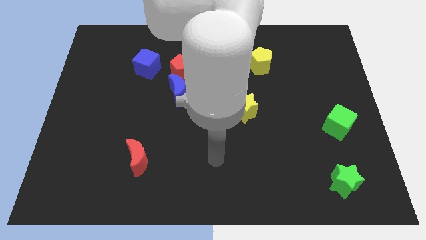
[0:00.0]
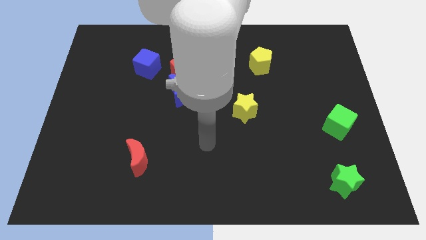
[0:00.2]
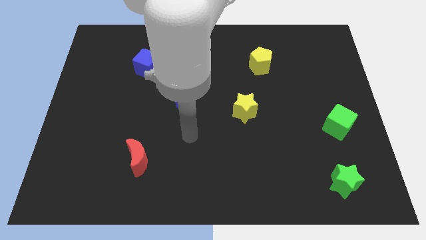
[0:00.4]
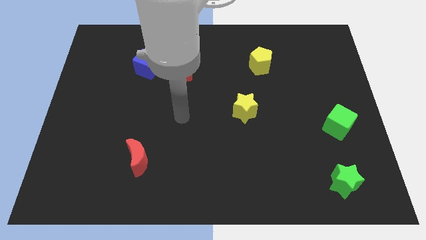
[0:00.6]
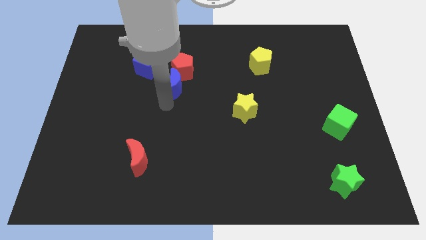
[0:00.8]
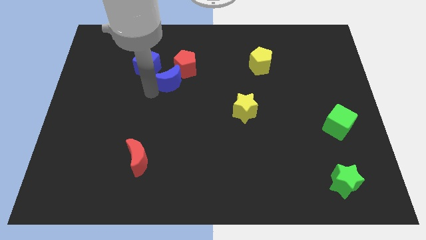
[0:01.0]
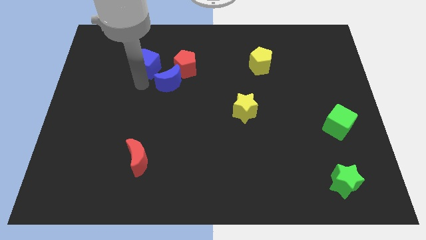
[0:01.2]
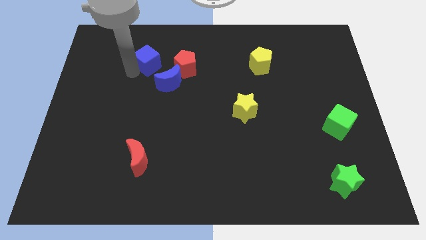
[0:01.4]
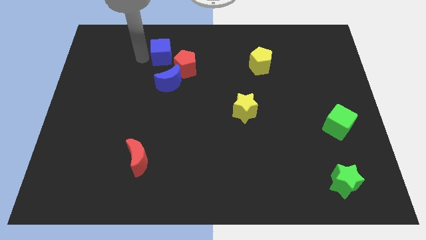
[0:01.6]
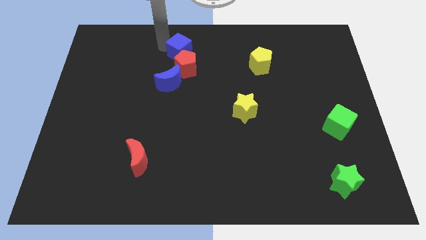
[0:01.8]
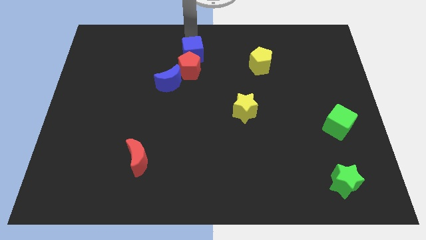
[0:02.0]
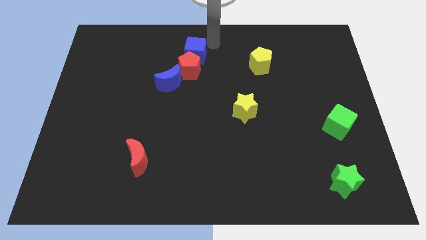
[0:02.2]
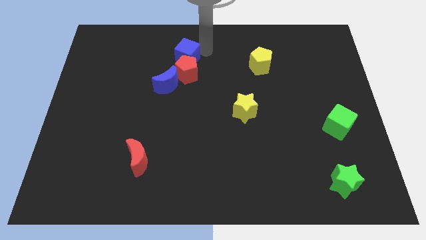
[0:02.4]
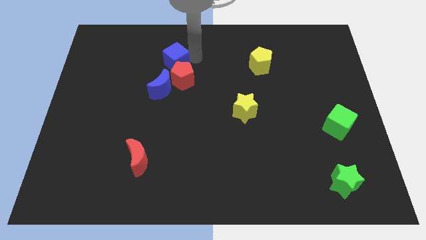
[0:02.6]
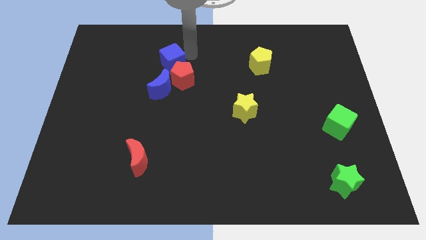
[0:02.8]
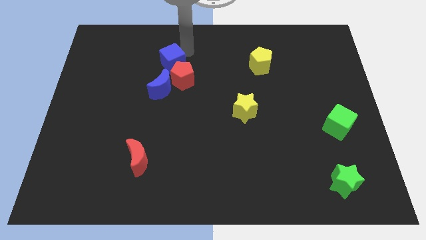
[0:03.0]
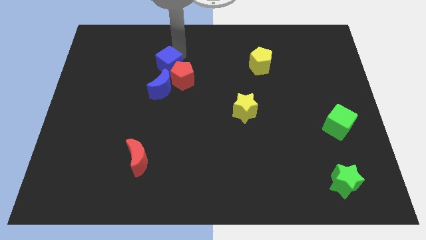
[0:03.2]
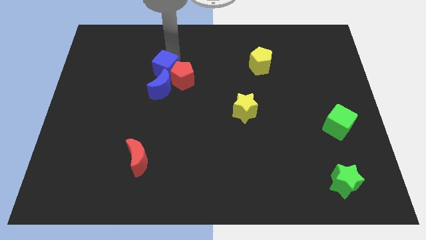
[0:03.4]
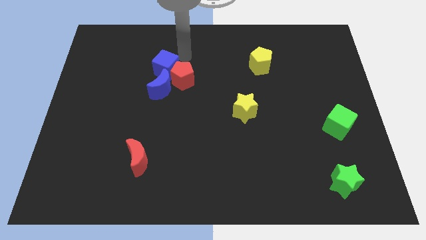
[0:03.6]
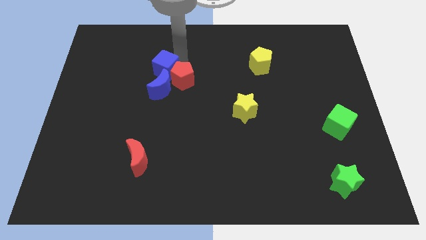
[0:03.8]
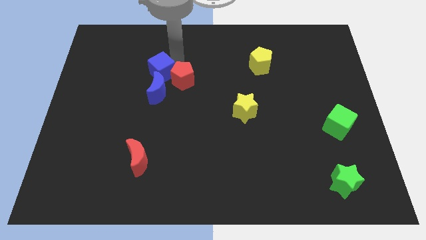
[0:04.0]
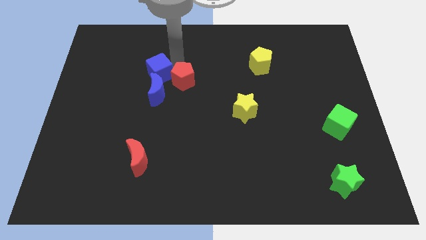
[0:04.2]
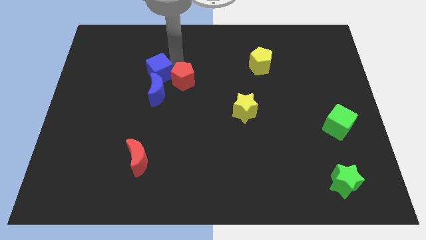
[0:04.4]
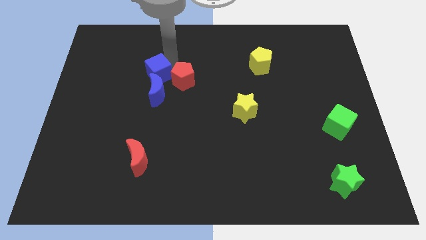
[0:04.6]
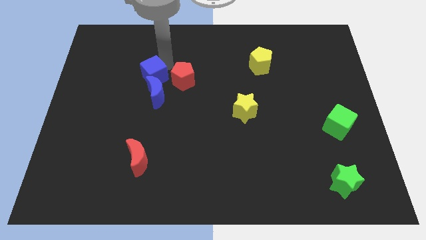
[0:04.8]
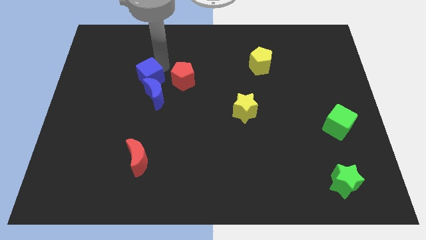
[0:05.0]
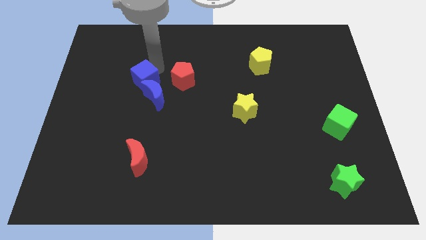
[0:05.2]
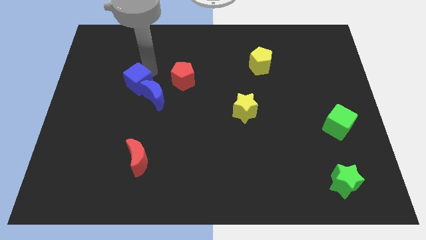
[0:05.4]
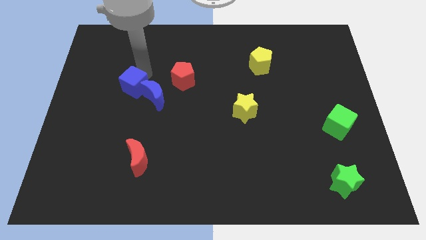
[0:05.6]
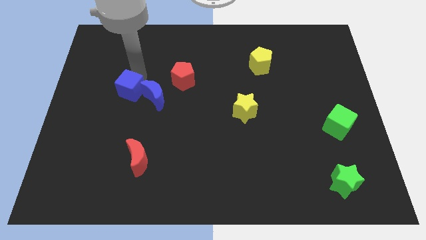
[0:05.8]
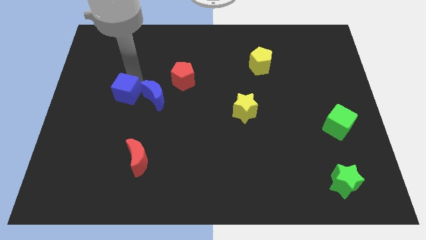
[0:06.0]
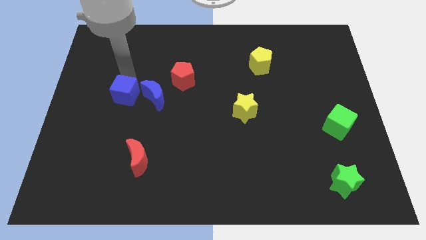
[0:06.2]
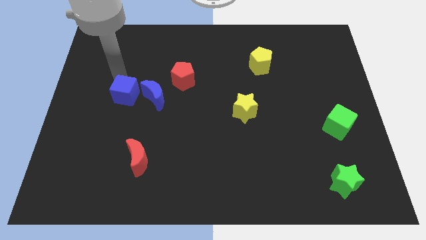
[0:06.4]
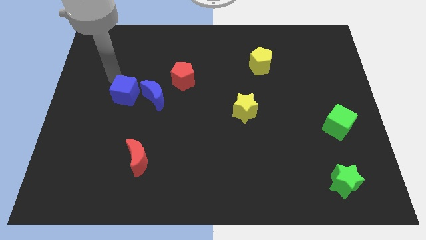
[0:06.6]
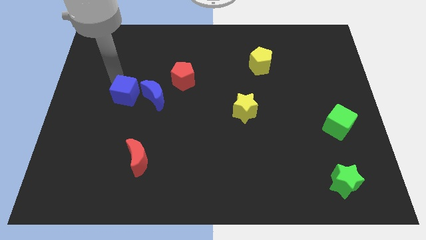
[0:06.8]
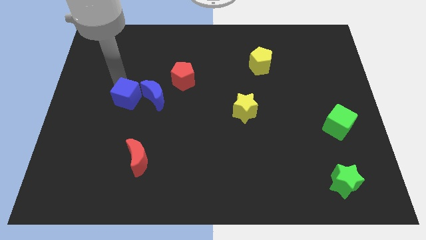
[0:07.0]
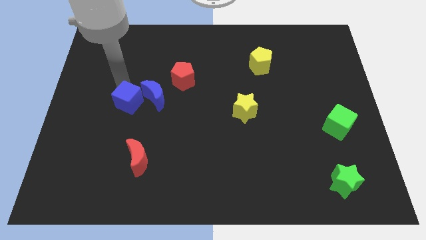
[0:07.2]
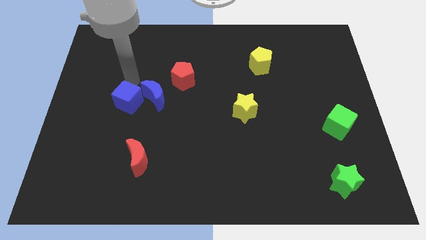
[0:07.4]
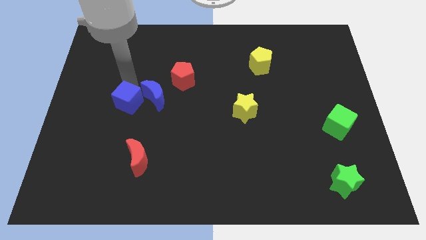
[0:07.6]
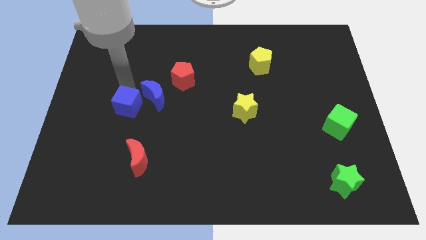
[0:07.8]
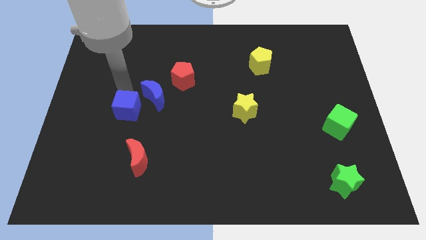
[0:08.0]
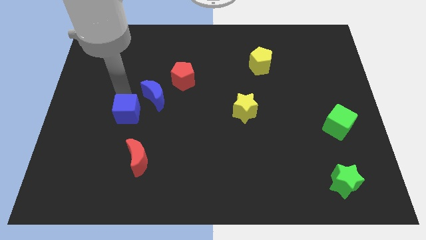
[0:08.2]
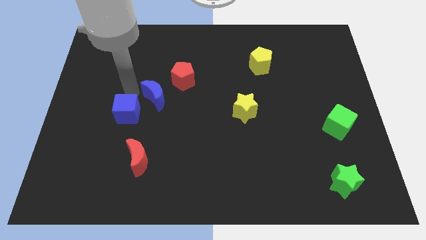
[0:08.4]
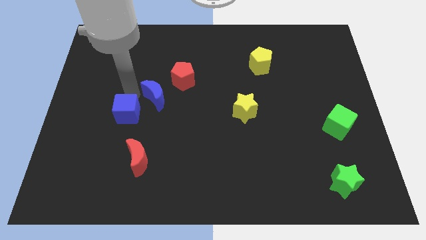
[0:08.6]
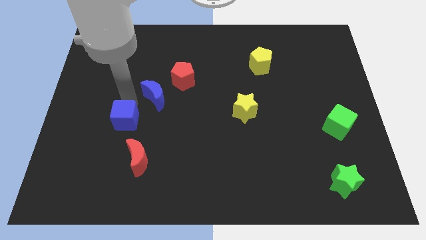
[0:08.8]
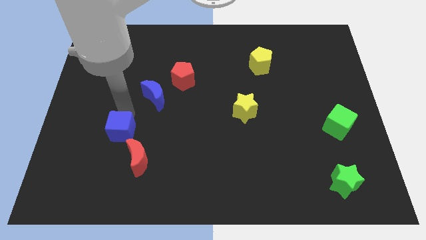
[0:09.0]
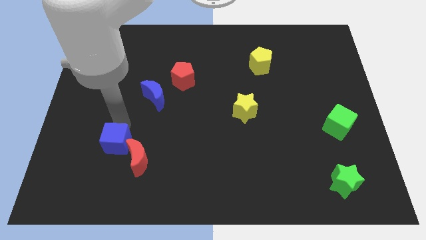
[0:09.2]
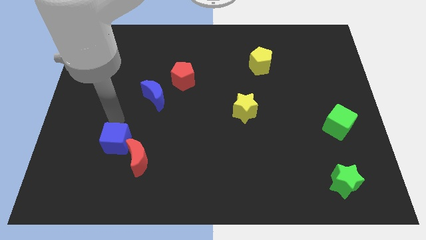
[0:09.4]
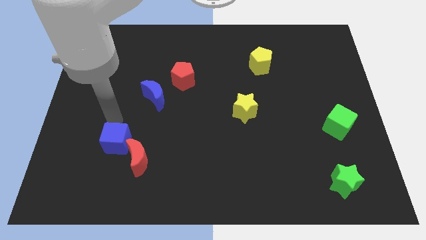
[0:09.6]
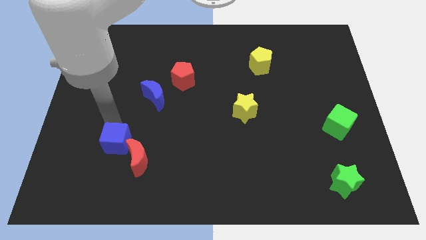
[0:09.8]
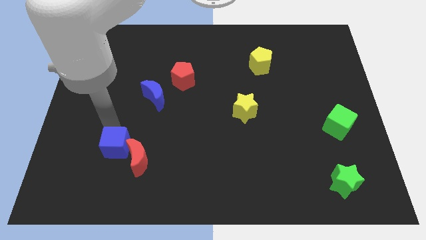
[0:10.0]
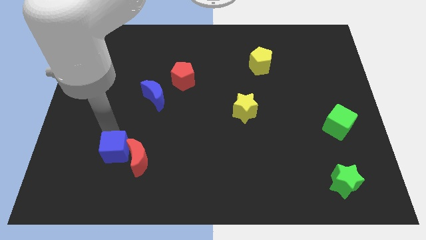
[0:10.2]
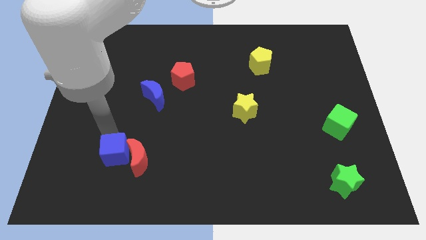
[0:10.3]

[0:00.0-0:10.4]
move the blue cube diagonally down and to the left of the red moon

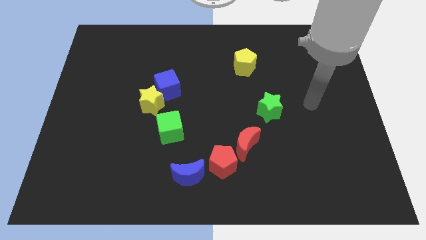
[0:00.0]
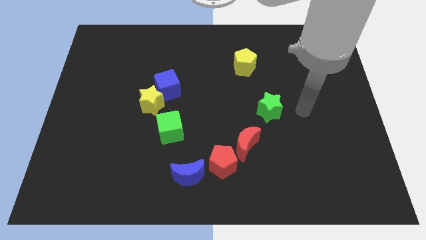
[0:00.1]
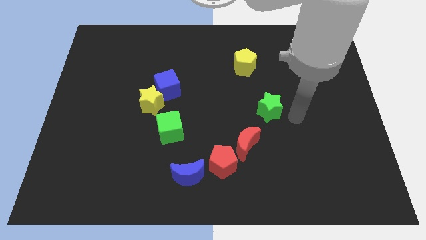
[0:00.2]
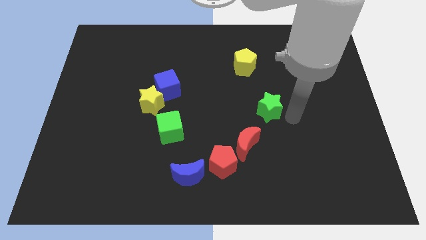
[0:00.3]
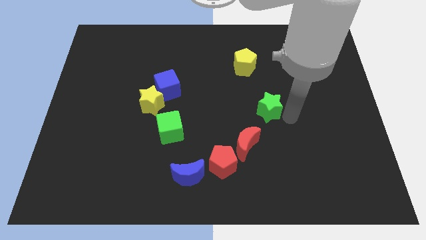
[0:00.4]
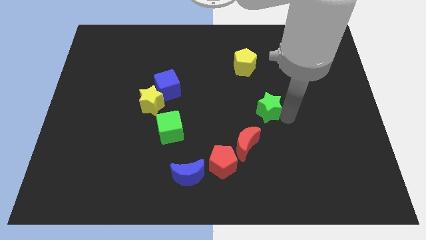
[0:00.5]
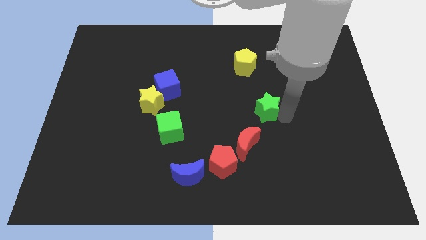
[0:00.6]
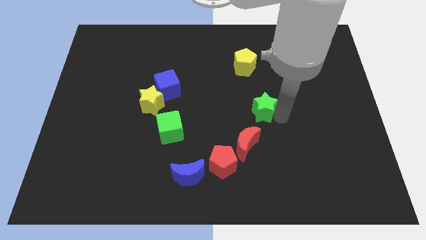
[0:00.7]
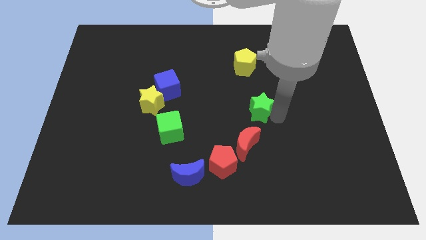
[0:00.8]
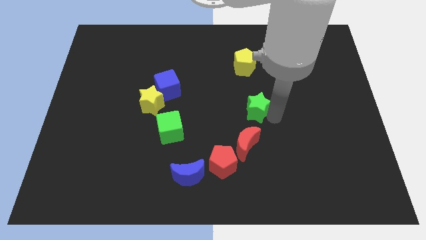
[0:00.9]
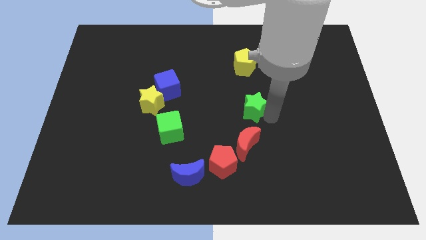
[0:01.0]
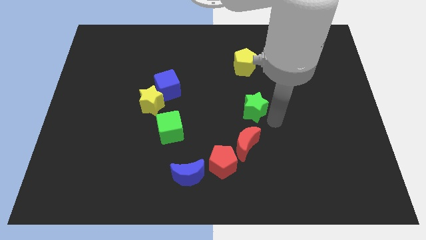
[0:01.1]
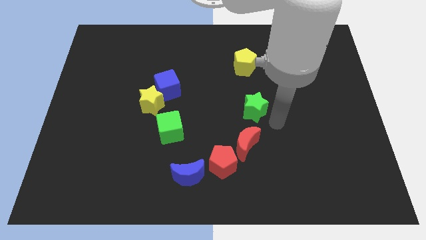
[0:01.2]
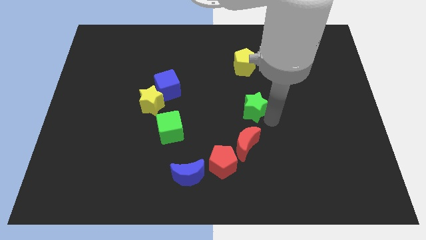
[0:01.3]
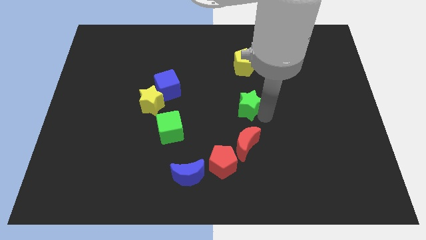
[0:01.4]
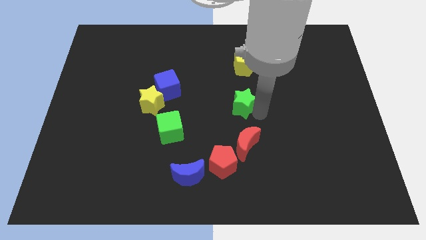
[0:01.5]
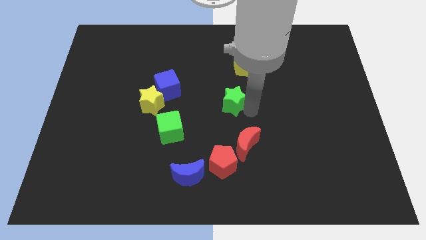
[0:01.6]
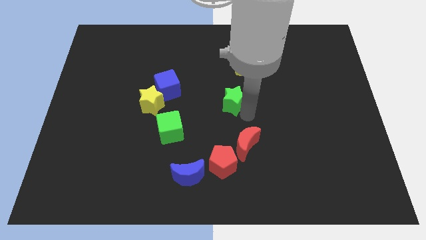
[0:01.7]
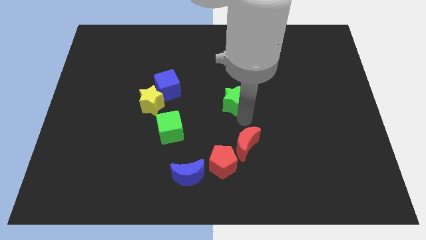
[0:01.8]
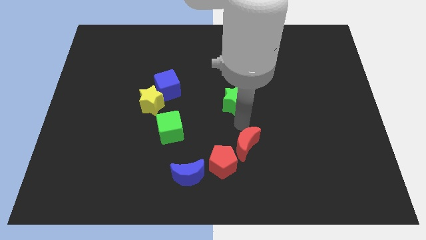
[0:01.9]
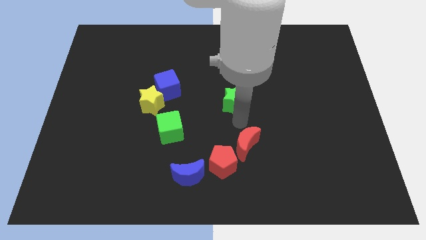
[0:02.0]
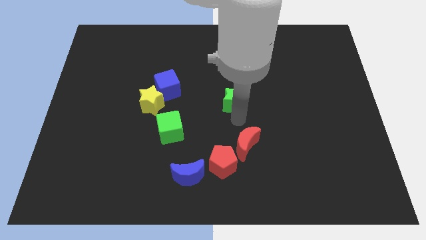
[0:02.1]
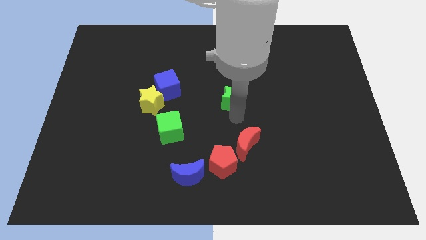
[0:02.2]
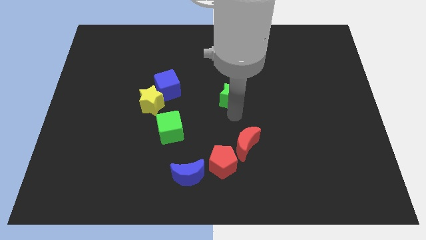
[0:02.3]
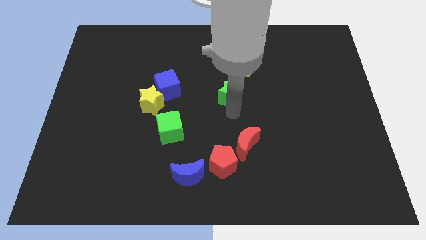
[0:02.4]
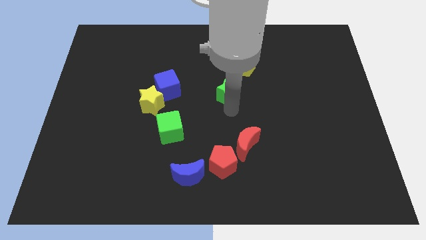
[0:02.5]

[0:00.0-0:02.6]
slide the green star to the bottom left of the yellow pentagon
